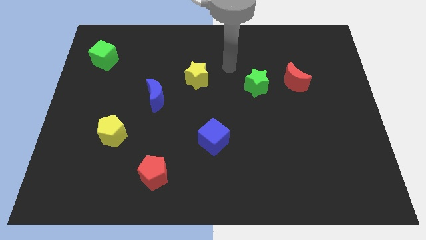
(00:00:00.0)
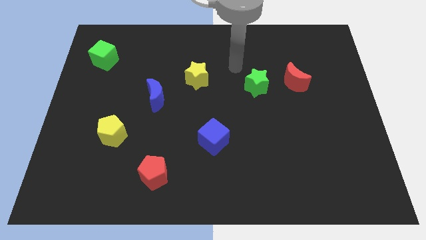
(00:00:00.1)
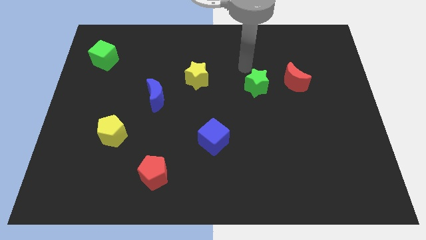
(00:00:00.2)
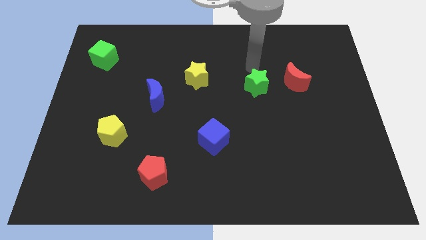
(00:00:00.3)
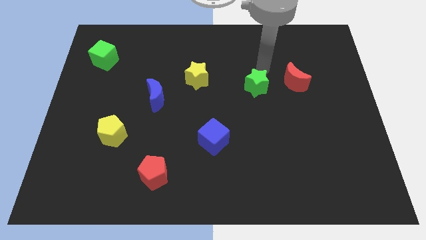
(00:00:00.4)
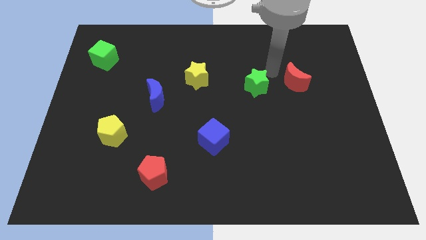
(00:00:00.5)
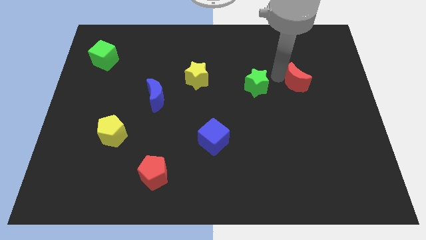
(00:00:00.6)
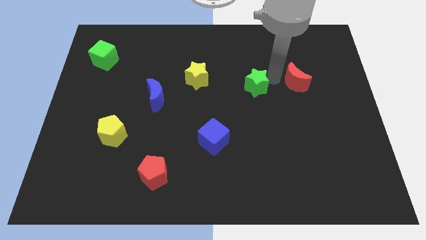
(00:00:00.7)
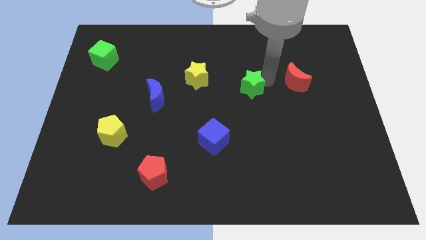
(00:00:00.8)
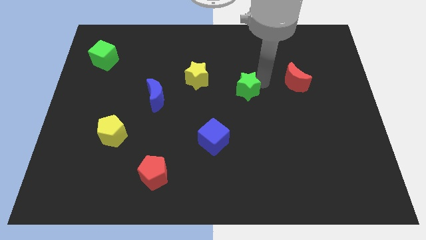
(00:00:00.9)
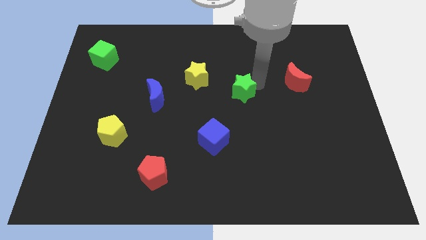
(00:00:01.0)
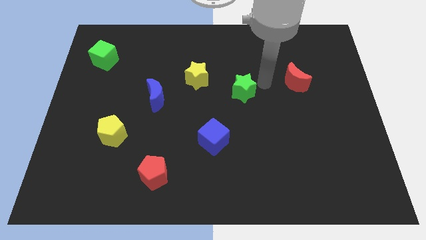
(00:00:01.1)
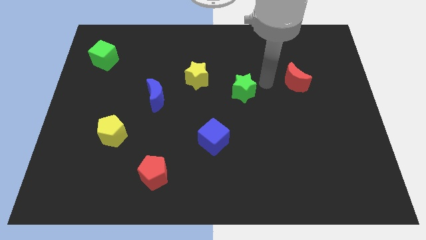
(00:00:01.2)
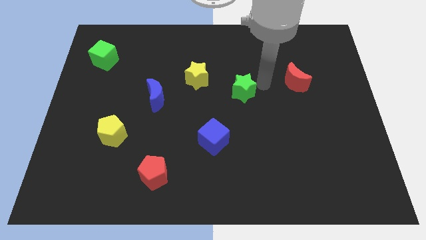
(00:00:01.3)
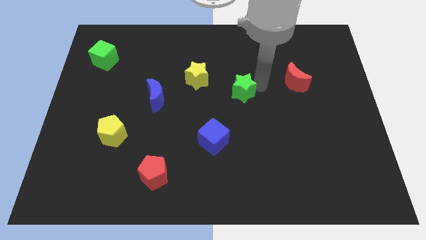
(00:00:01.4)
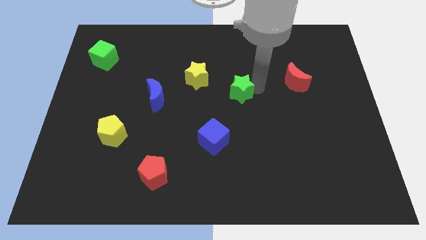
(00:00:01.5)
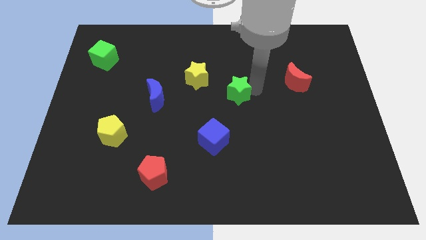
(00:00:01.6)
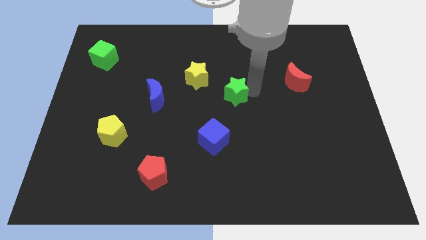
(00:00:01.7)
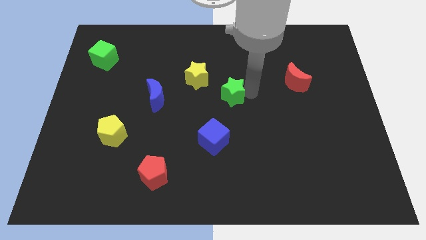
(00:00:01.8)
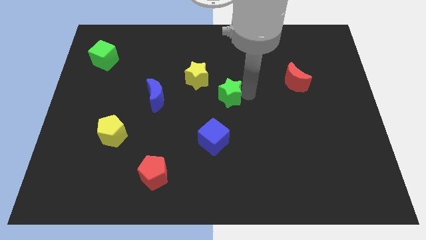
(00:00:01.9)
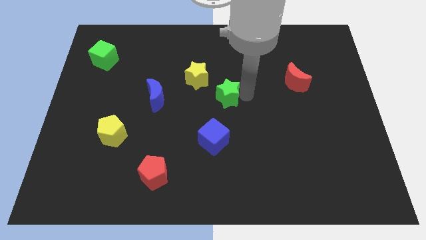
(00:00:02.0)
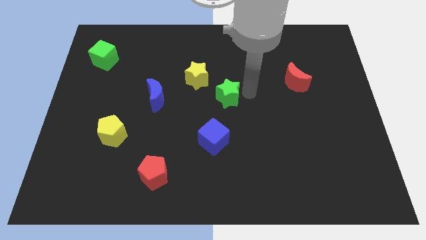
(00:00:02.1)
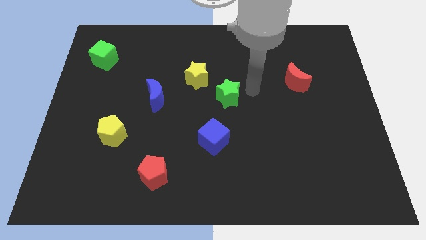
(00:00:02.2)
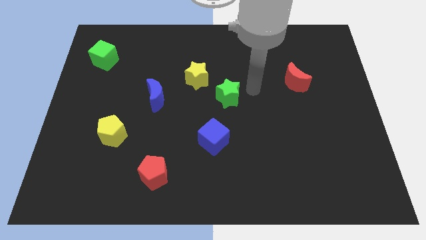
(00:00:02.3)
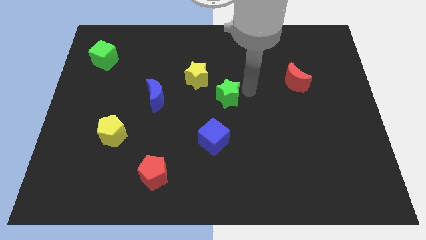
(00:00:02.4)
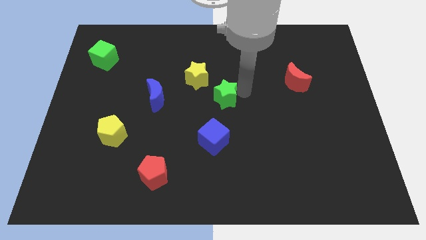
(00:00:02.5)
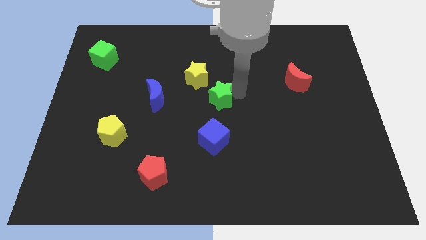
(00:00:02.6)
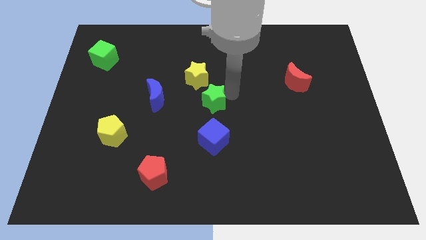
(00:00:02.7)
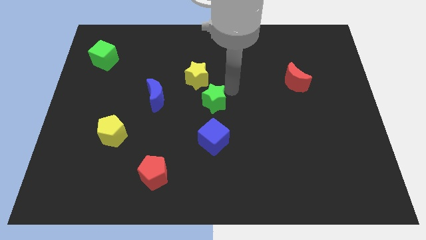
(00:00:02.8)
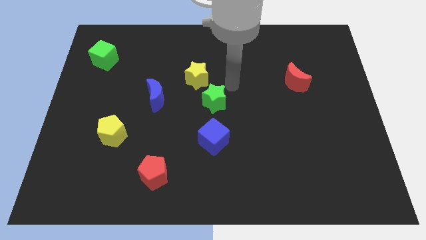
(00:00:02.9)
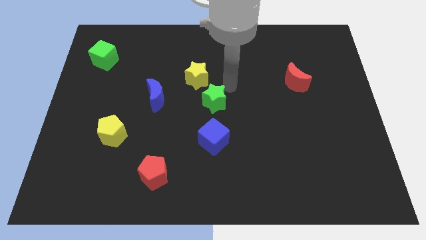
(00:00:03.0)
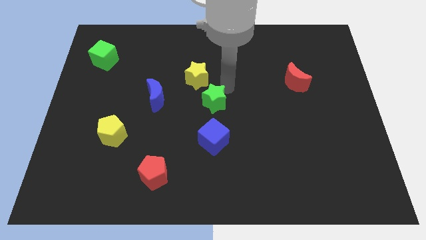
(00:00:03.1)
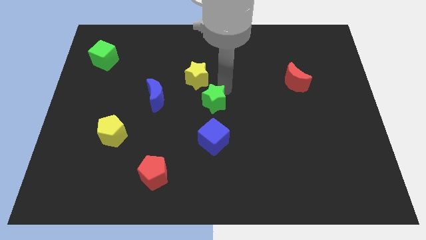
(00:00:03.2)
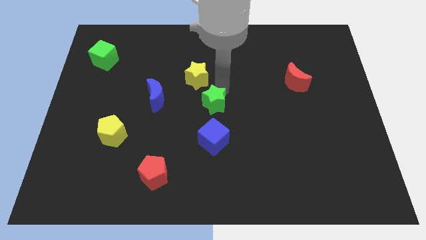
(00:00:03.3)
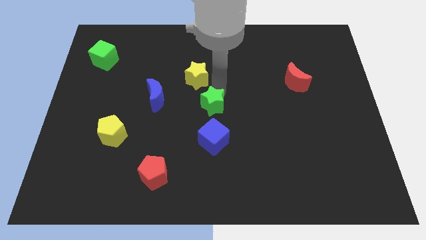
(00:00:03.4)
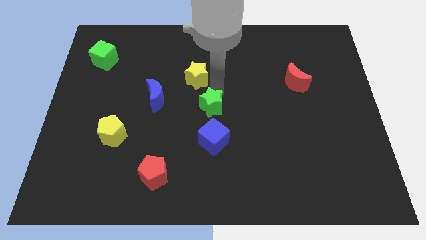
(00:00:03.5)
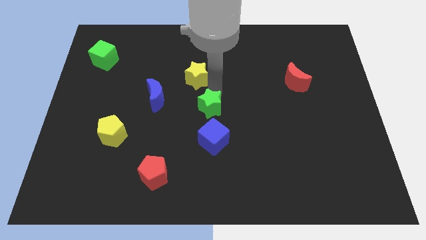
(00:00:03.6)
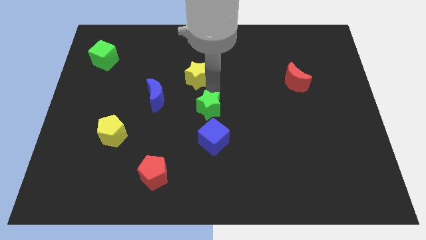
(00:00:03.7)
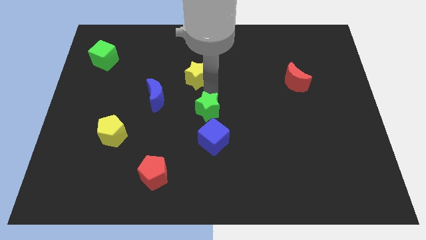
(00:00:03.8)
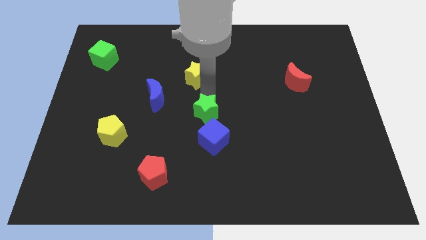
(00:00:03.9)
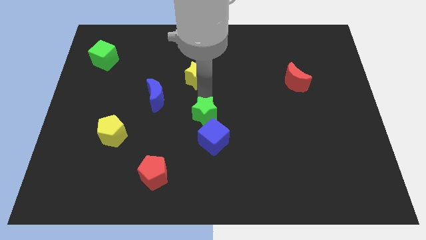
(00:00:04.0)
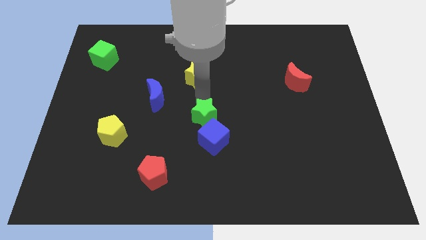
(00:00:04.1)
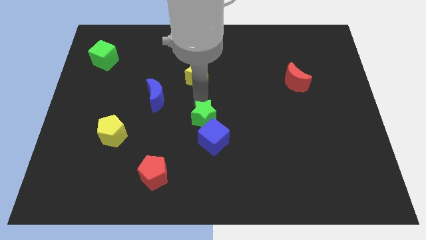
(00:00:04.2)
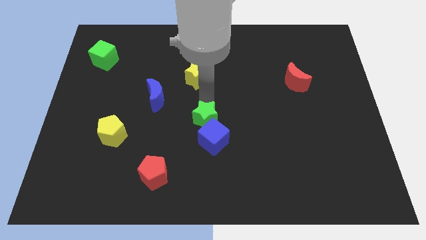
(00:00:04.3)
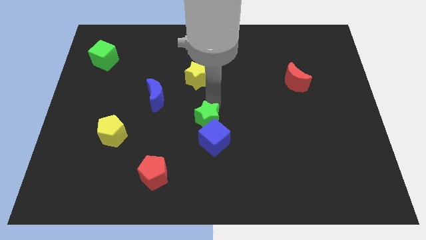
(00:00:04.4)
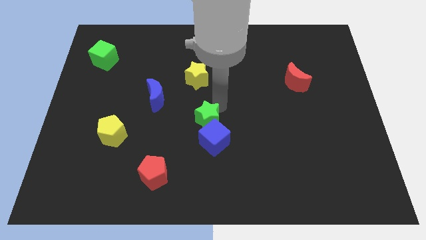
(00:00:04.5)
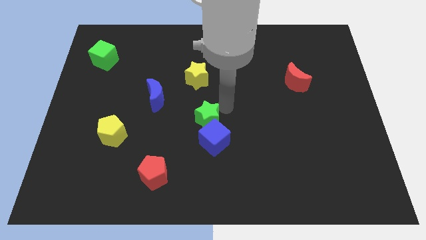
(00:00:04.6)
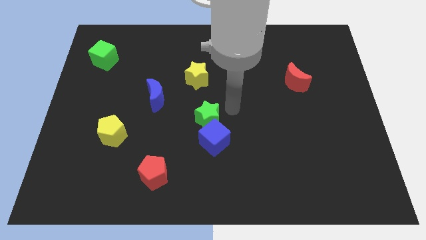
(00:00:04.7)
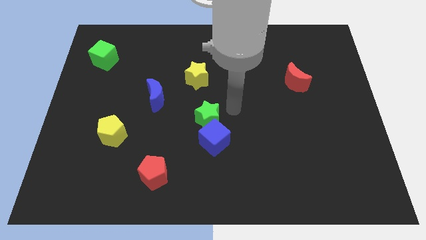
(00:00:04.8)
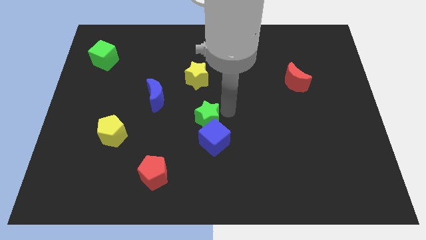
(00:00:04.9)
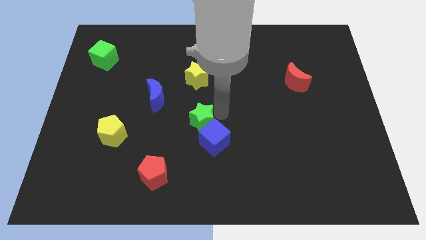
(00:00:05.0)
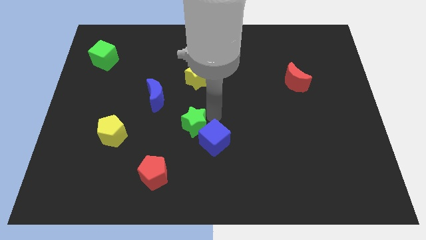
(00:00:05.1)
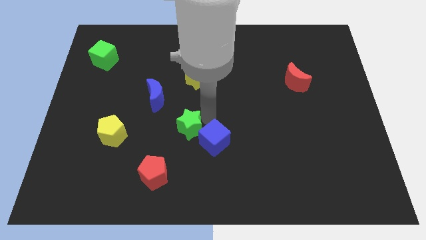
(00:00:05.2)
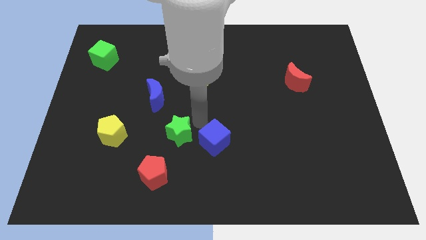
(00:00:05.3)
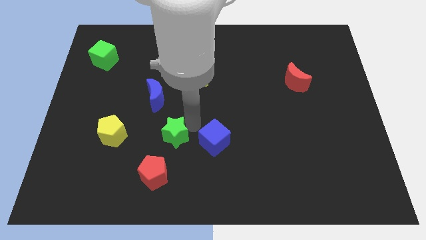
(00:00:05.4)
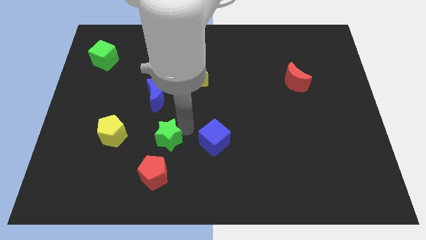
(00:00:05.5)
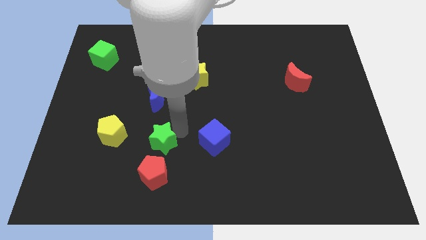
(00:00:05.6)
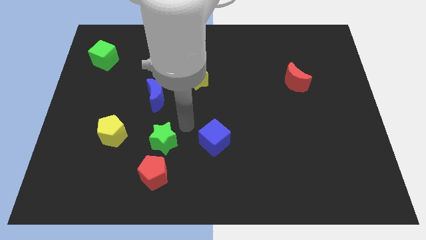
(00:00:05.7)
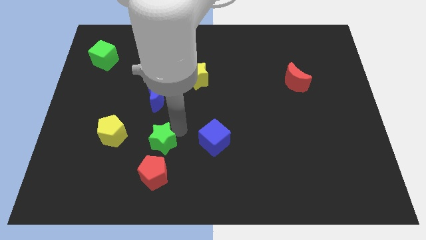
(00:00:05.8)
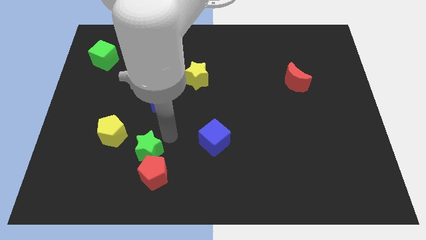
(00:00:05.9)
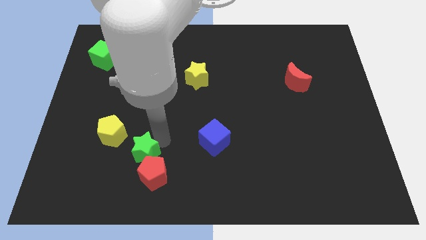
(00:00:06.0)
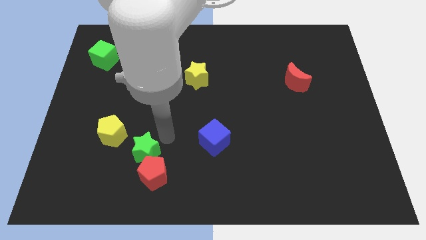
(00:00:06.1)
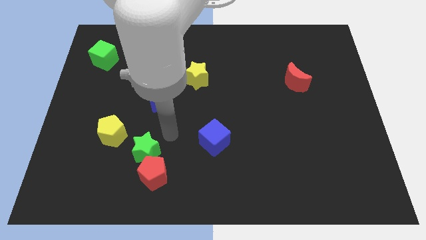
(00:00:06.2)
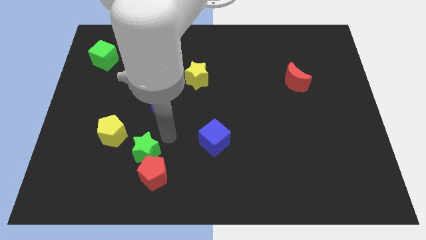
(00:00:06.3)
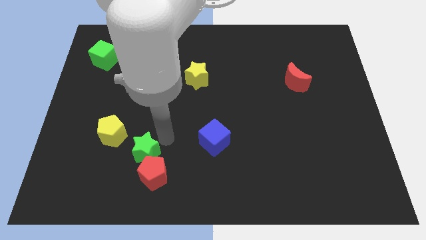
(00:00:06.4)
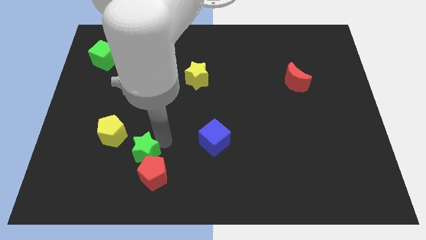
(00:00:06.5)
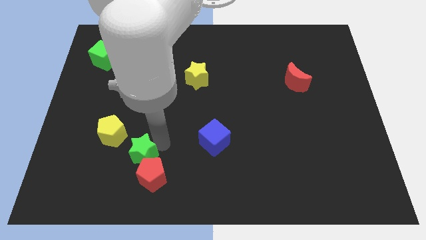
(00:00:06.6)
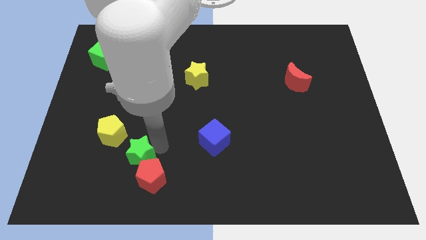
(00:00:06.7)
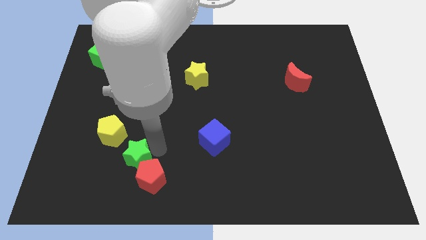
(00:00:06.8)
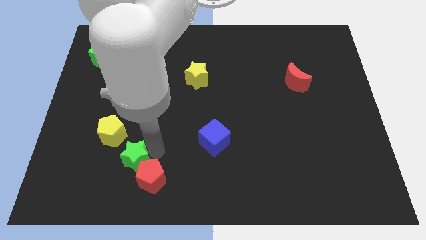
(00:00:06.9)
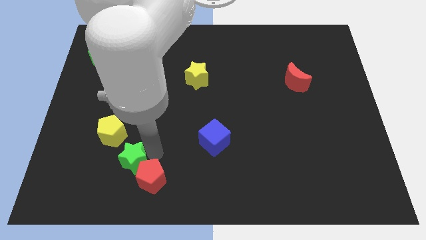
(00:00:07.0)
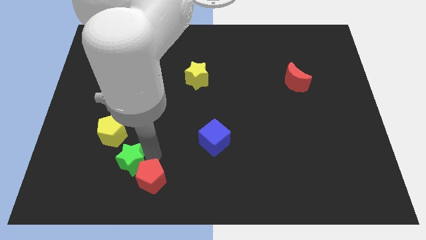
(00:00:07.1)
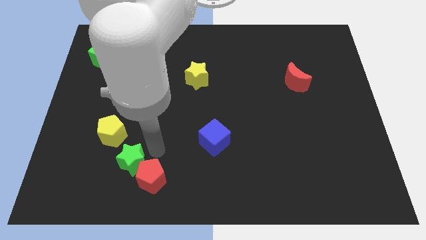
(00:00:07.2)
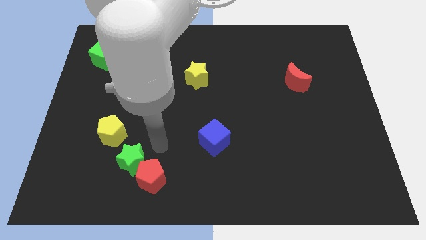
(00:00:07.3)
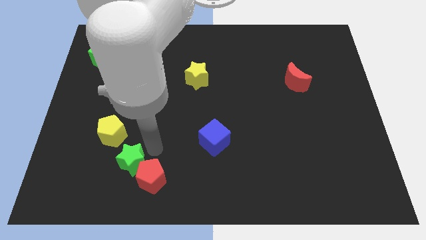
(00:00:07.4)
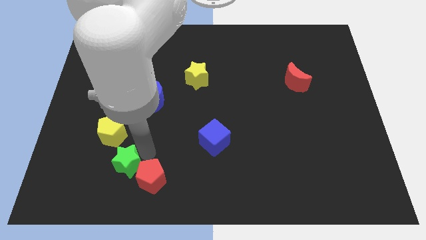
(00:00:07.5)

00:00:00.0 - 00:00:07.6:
move the green star to the bottom of the yellow pentagon

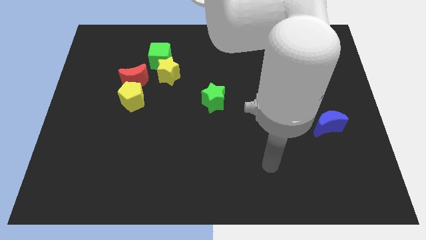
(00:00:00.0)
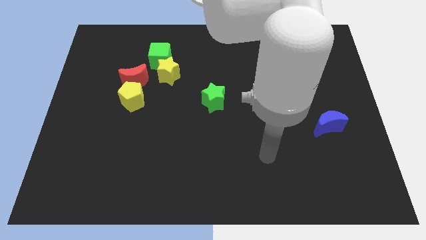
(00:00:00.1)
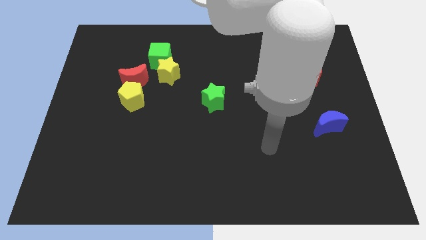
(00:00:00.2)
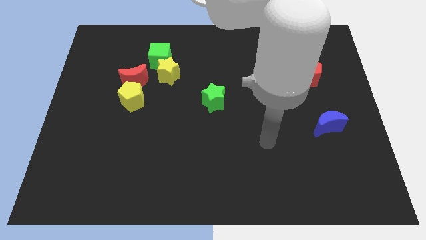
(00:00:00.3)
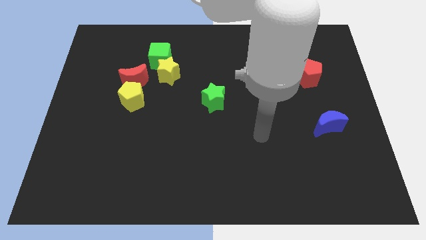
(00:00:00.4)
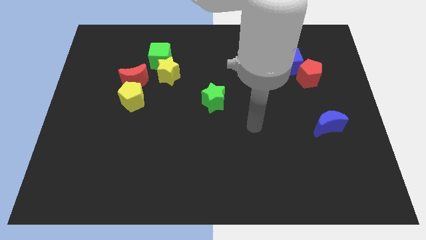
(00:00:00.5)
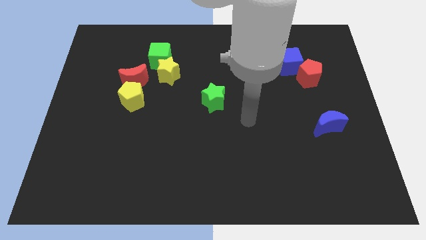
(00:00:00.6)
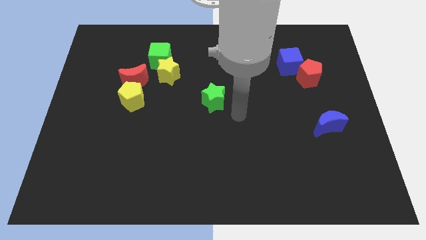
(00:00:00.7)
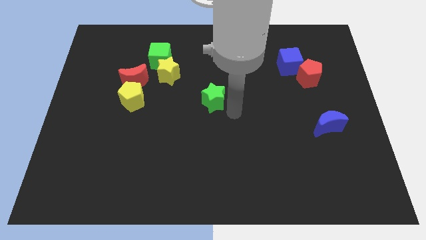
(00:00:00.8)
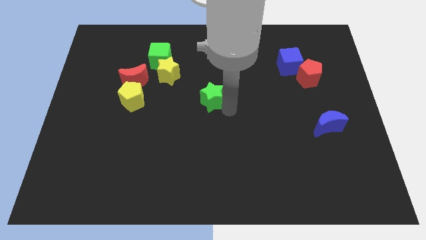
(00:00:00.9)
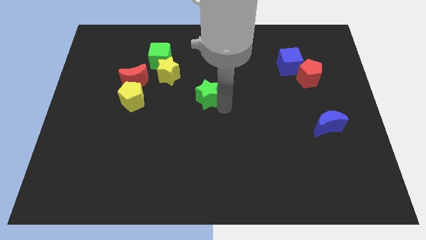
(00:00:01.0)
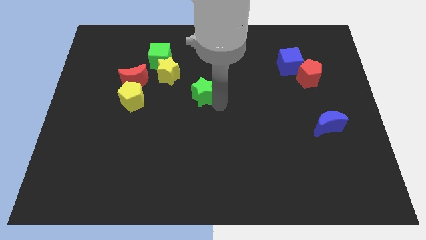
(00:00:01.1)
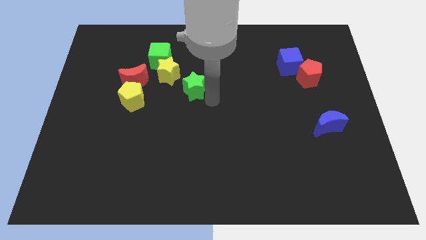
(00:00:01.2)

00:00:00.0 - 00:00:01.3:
put the green star right of the red moon
